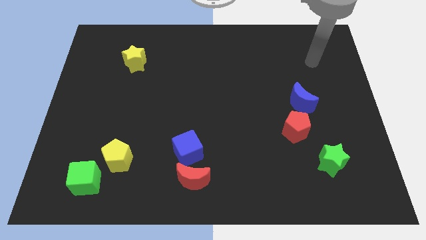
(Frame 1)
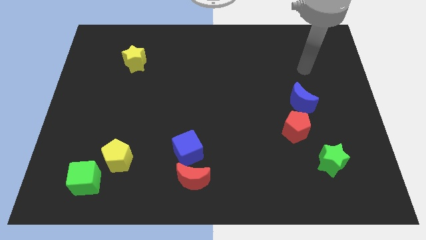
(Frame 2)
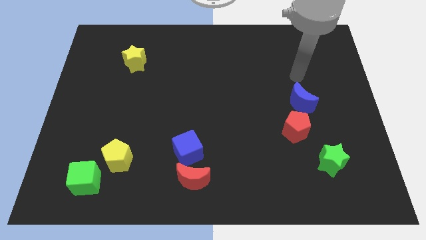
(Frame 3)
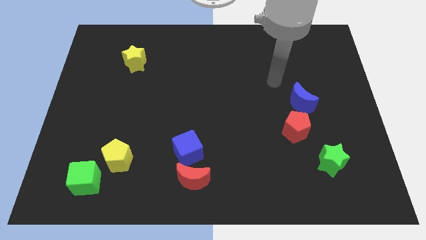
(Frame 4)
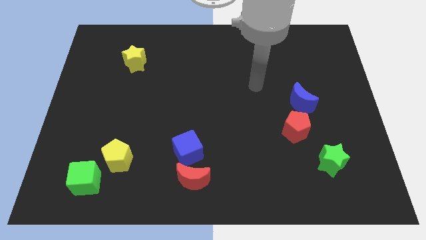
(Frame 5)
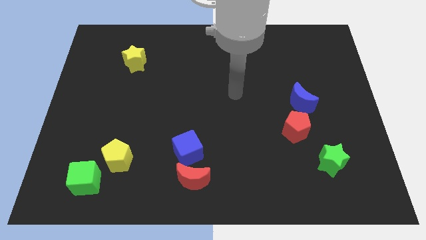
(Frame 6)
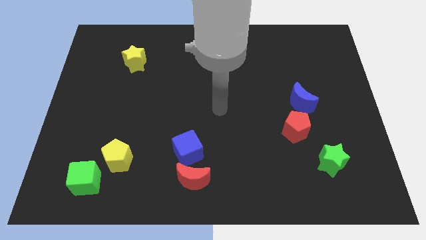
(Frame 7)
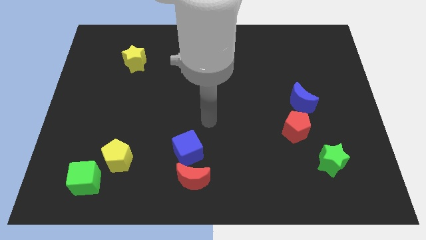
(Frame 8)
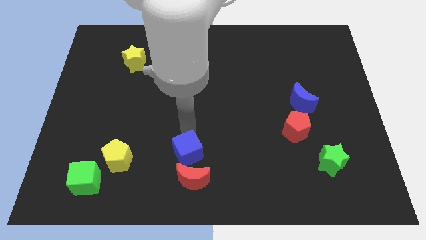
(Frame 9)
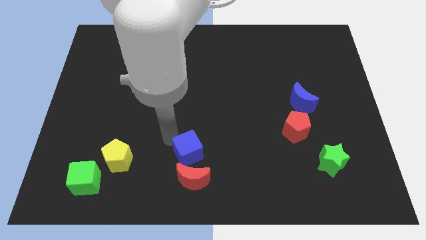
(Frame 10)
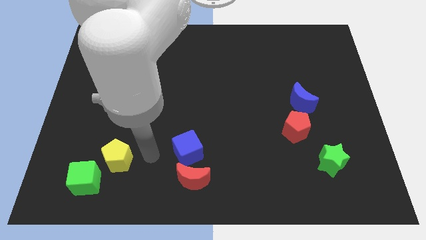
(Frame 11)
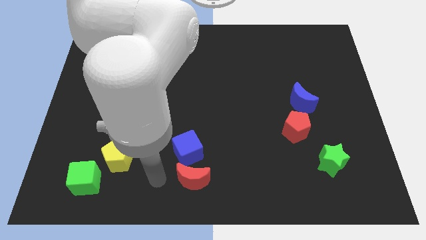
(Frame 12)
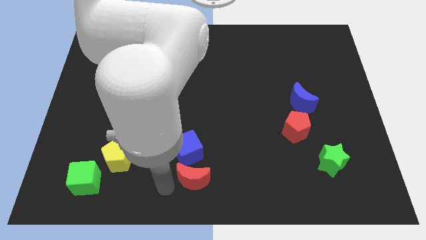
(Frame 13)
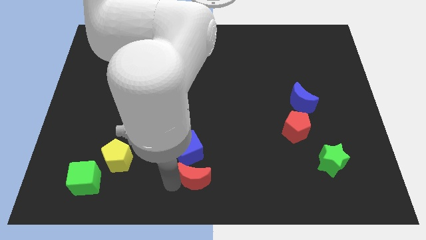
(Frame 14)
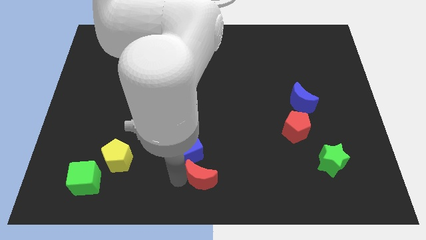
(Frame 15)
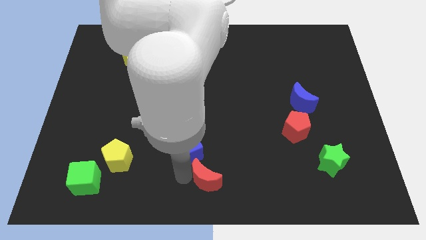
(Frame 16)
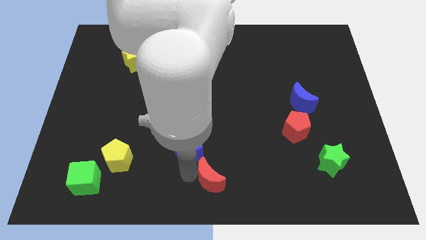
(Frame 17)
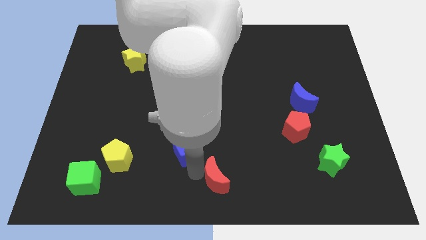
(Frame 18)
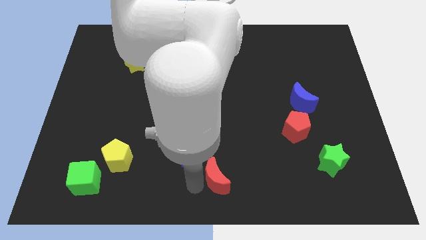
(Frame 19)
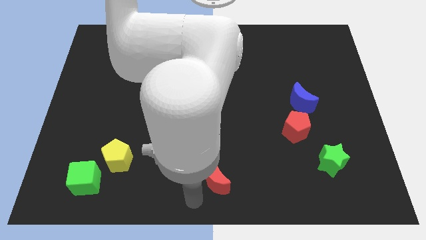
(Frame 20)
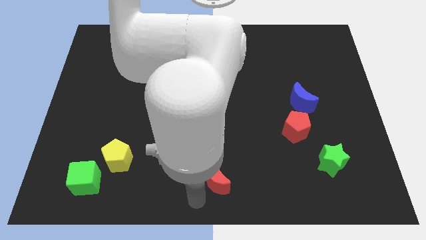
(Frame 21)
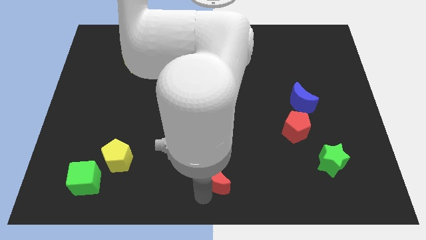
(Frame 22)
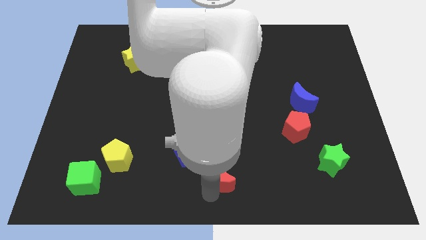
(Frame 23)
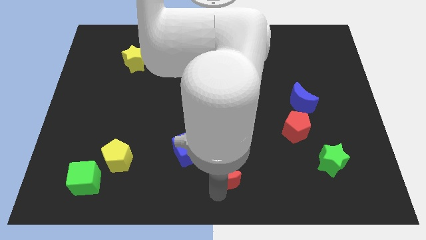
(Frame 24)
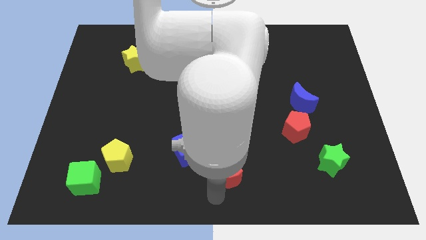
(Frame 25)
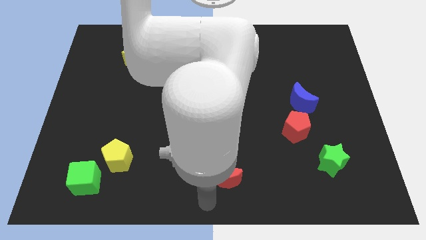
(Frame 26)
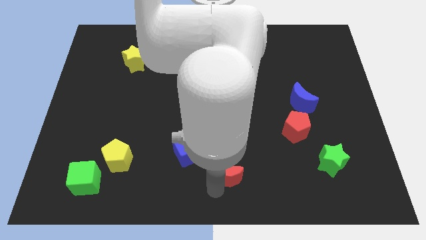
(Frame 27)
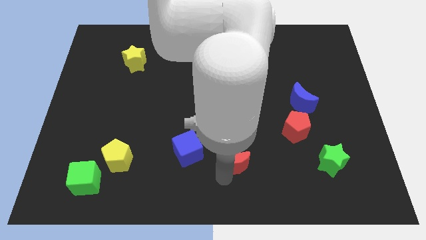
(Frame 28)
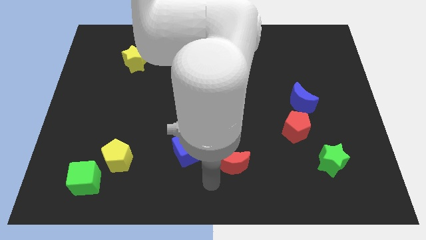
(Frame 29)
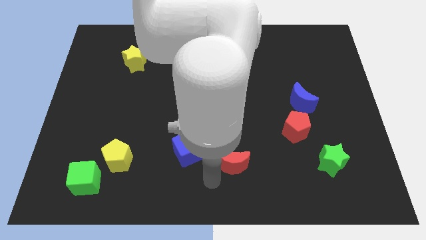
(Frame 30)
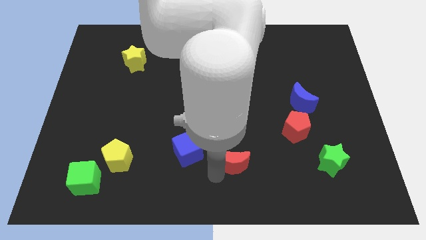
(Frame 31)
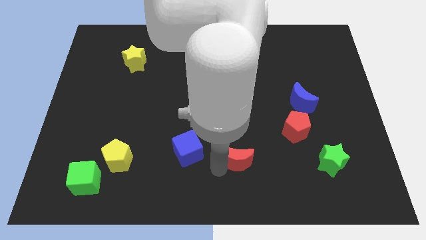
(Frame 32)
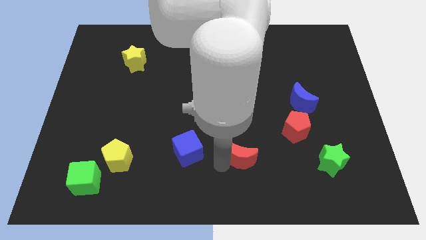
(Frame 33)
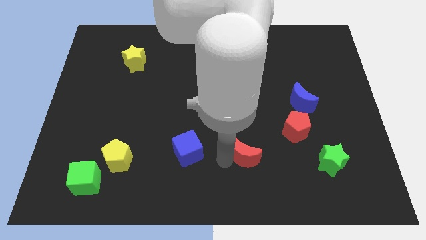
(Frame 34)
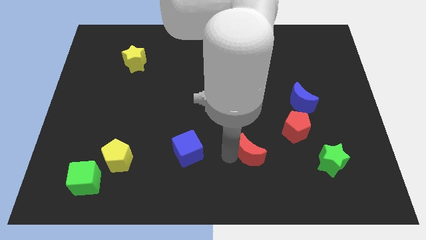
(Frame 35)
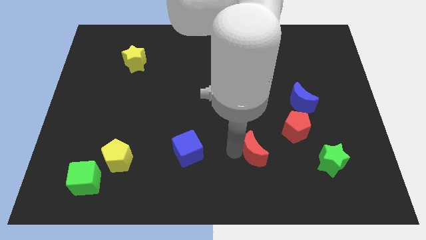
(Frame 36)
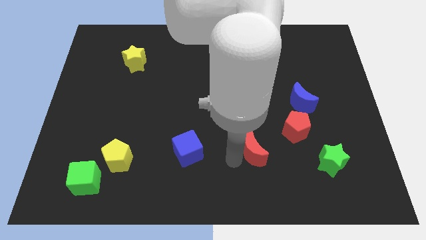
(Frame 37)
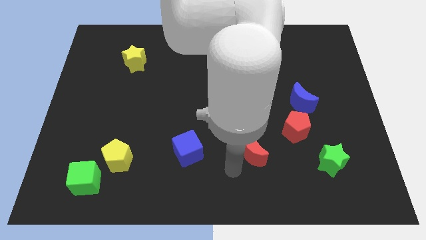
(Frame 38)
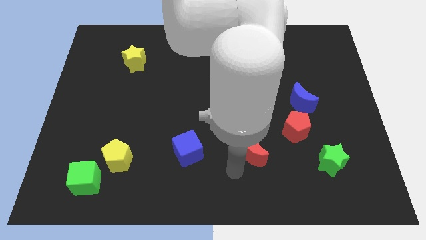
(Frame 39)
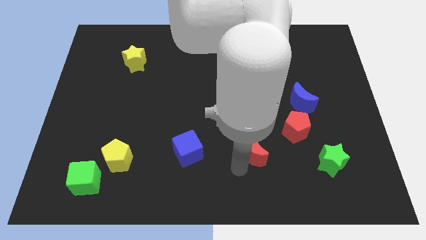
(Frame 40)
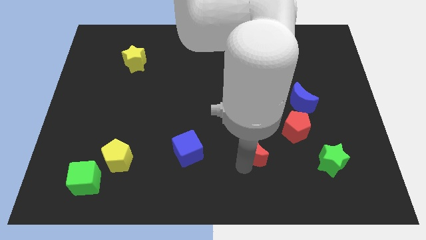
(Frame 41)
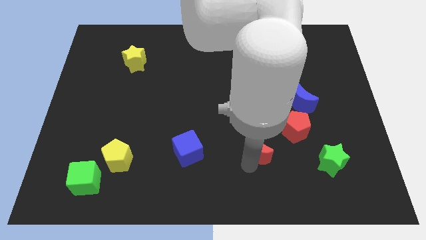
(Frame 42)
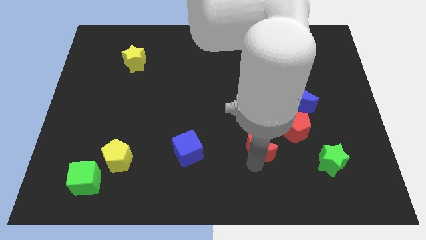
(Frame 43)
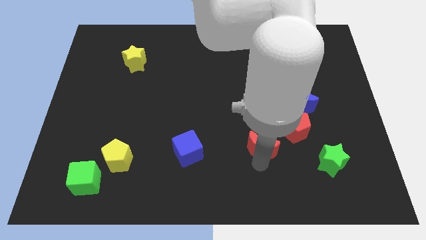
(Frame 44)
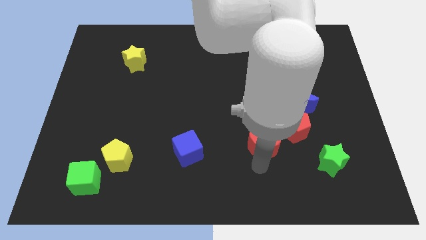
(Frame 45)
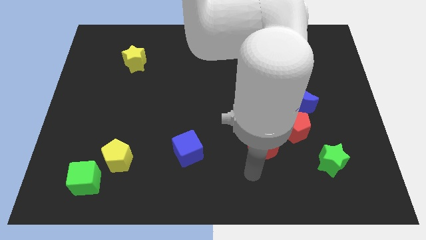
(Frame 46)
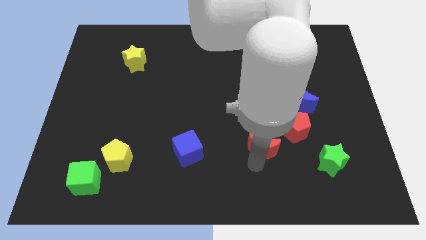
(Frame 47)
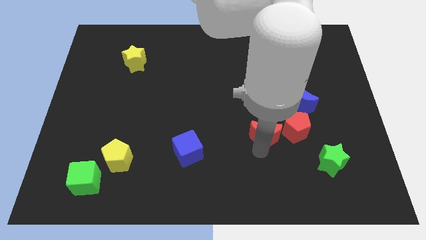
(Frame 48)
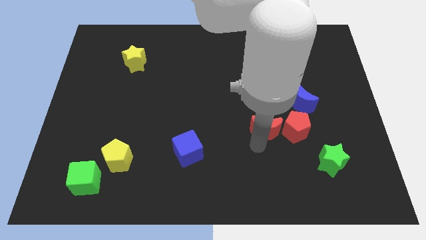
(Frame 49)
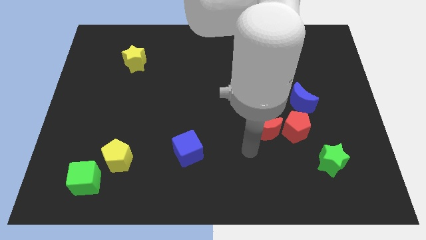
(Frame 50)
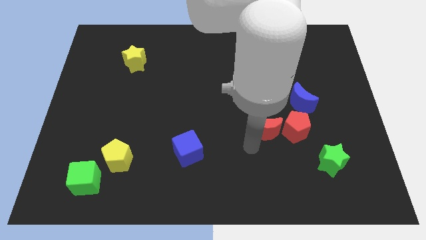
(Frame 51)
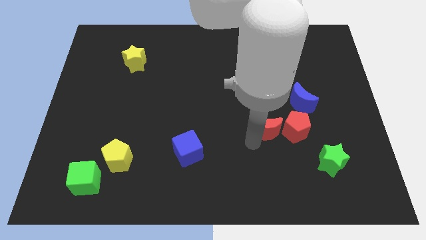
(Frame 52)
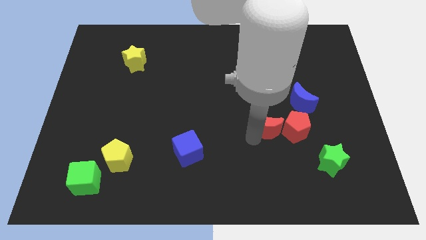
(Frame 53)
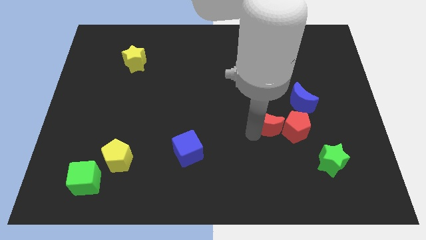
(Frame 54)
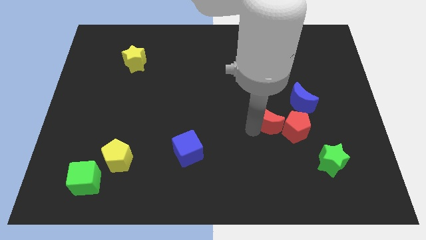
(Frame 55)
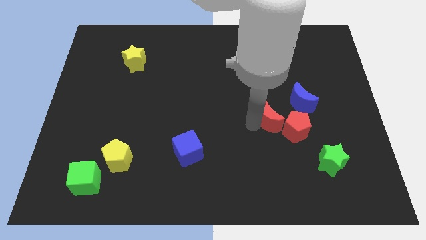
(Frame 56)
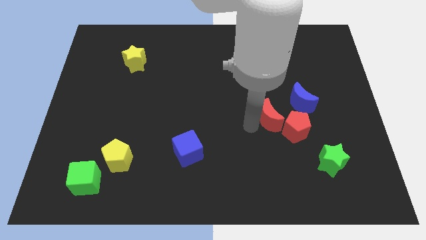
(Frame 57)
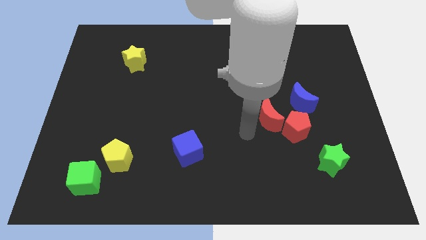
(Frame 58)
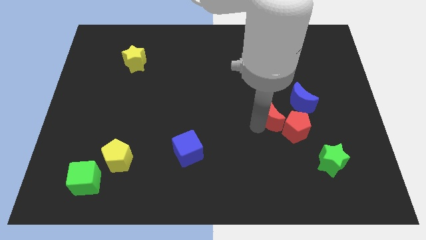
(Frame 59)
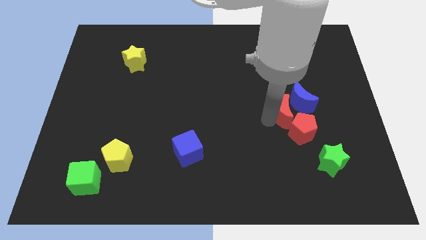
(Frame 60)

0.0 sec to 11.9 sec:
slide the red moon towards the blue moon
